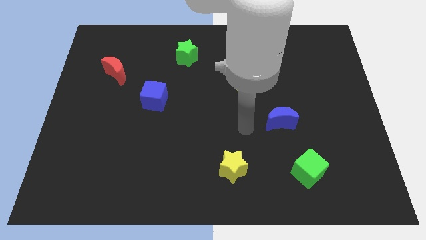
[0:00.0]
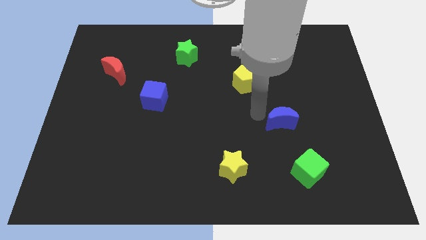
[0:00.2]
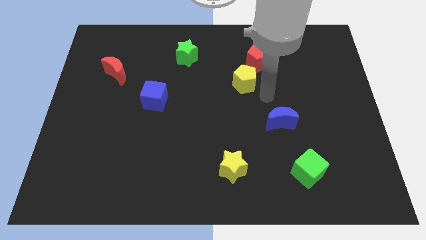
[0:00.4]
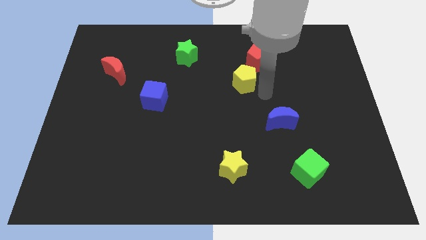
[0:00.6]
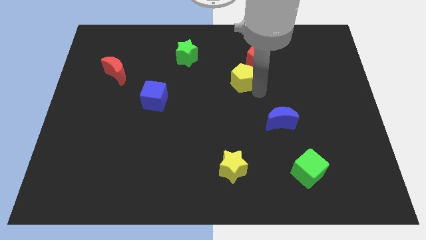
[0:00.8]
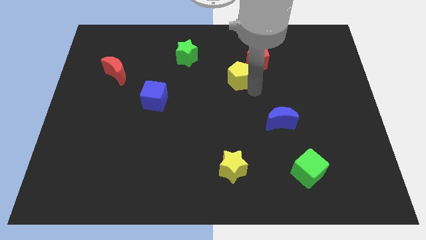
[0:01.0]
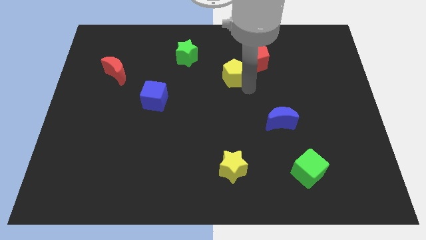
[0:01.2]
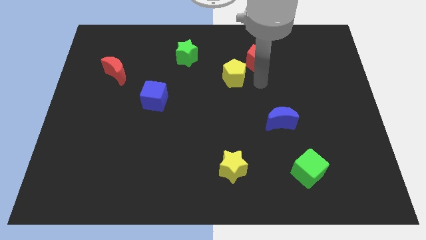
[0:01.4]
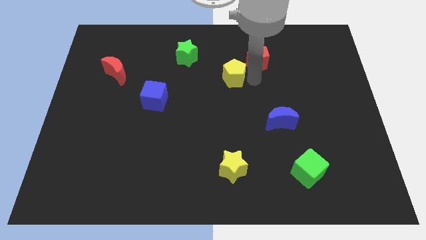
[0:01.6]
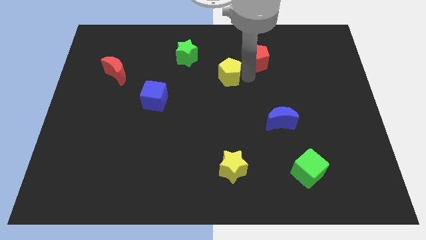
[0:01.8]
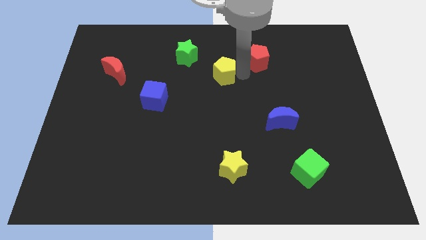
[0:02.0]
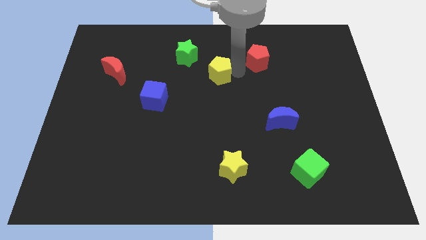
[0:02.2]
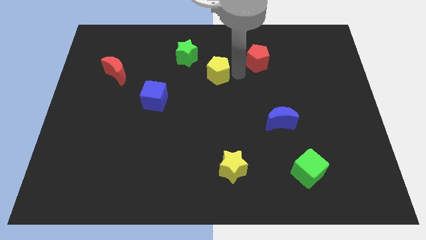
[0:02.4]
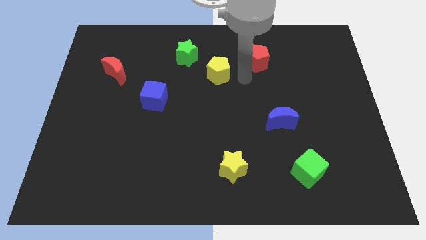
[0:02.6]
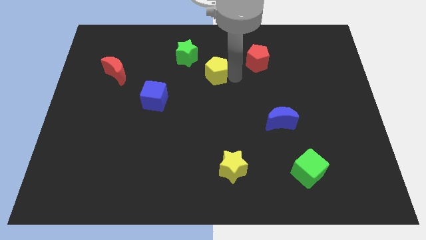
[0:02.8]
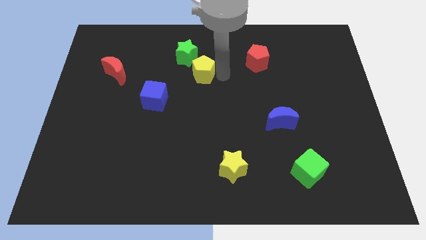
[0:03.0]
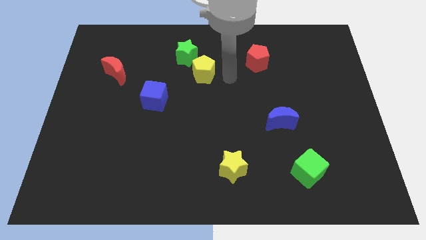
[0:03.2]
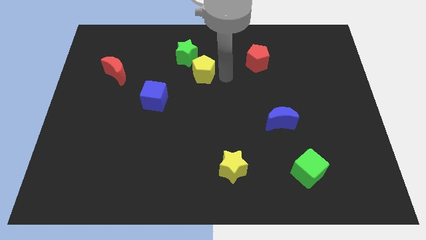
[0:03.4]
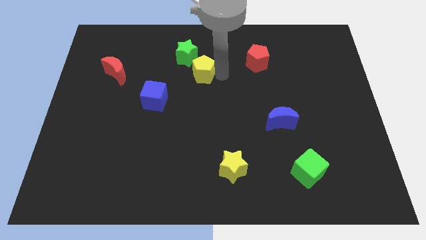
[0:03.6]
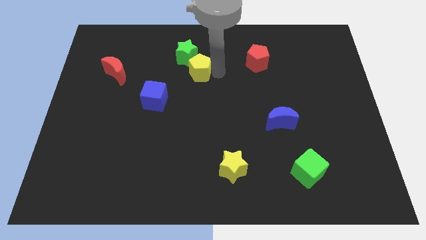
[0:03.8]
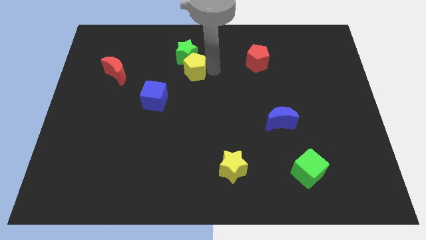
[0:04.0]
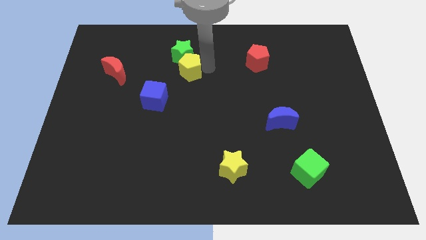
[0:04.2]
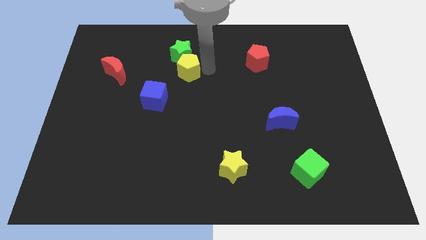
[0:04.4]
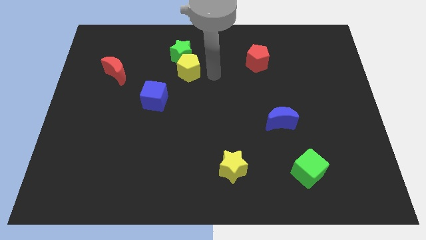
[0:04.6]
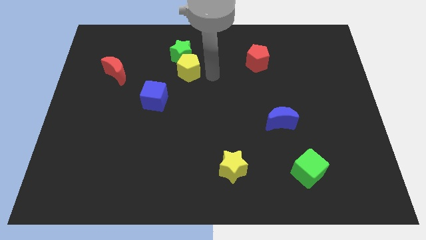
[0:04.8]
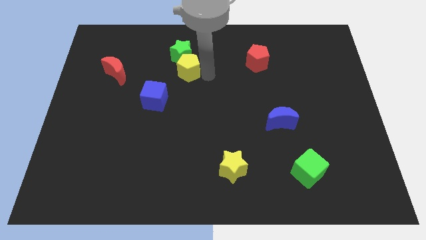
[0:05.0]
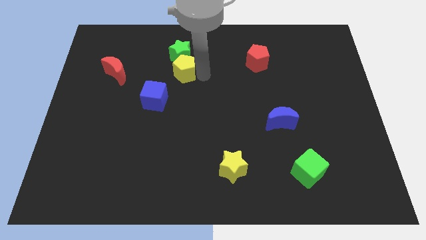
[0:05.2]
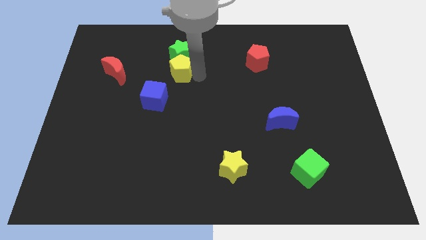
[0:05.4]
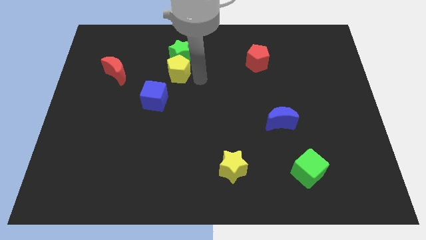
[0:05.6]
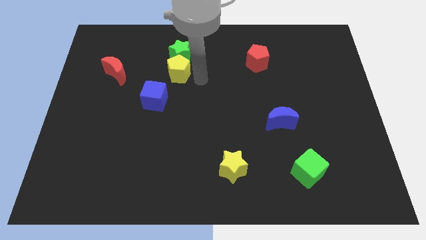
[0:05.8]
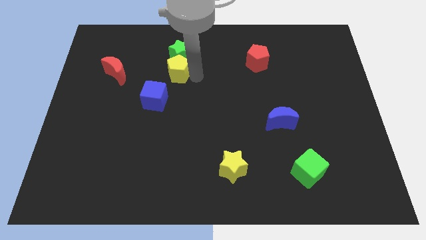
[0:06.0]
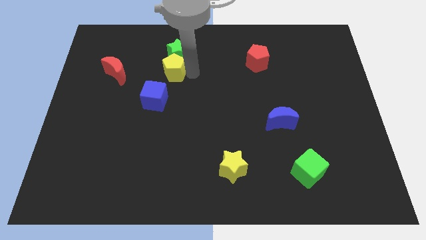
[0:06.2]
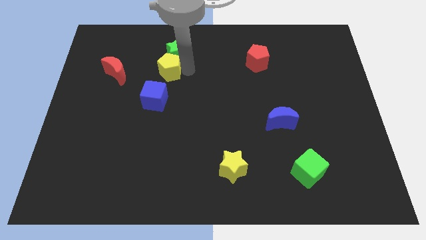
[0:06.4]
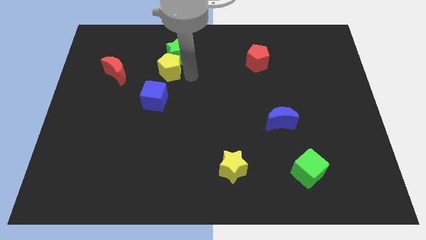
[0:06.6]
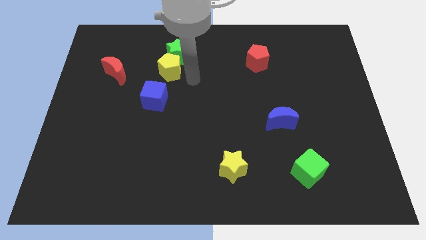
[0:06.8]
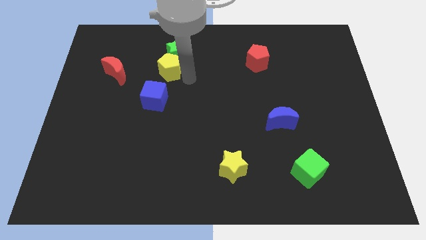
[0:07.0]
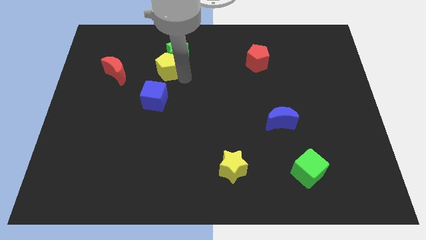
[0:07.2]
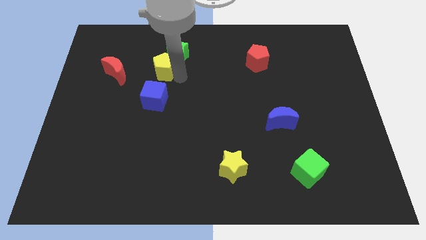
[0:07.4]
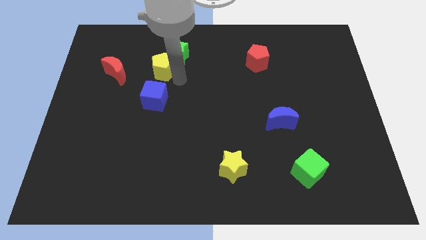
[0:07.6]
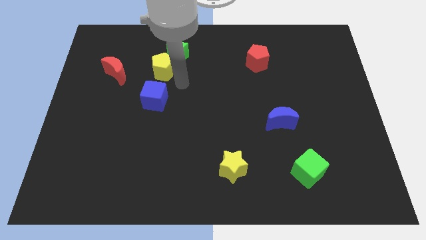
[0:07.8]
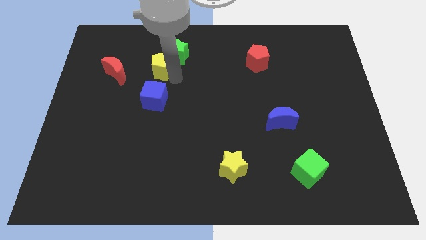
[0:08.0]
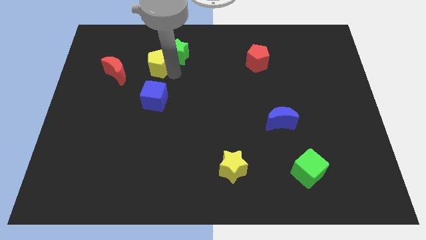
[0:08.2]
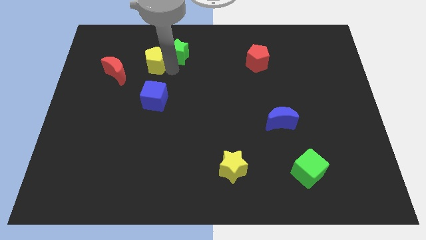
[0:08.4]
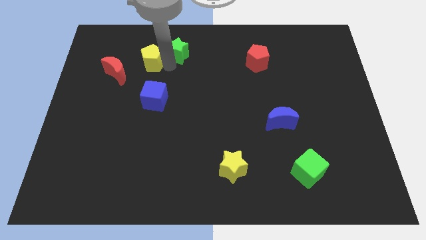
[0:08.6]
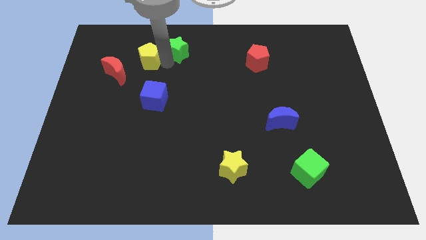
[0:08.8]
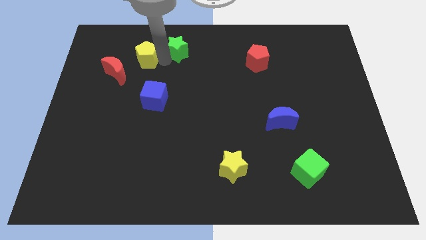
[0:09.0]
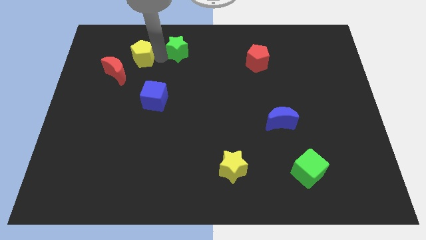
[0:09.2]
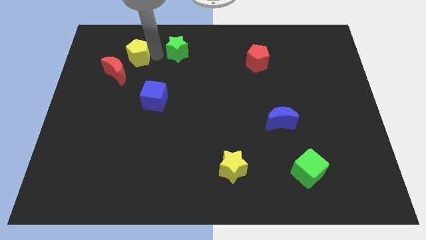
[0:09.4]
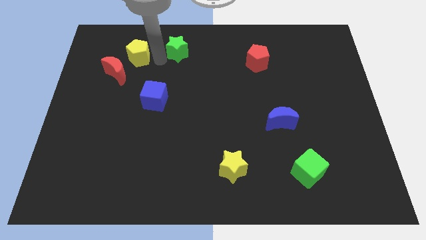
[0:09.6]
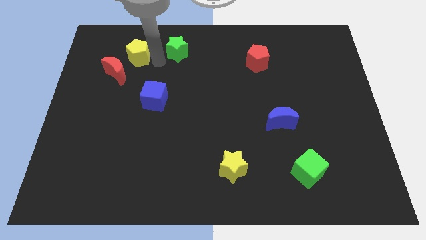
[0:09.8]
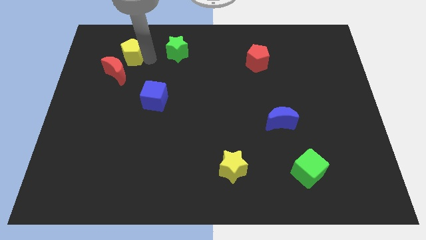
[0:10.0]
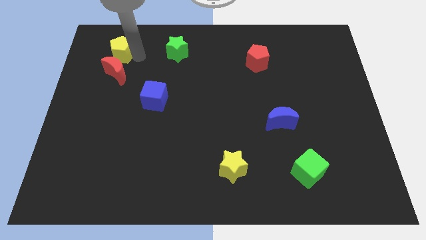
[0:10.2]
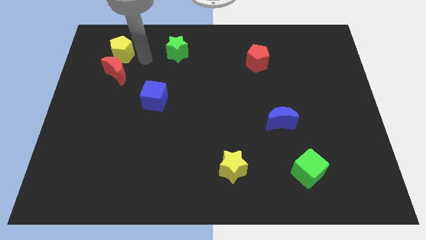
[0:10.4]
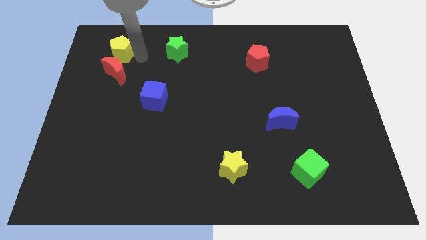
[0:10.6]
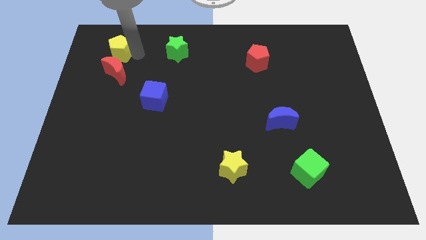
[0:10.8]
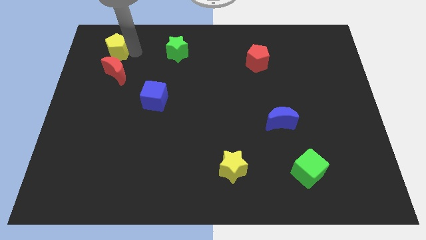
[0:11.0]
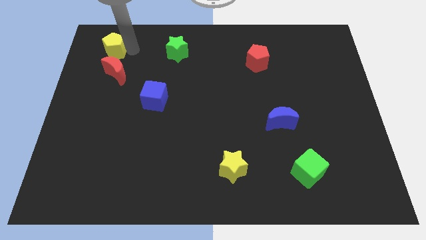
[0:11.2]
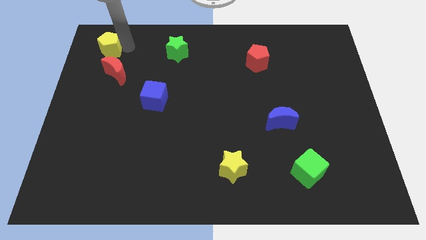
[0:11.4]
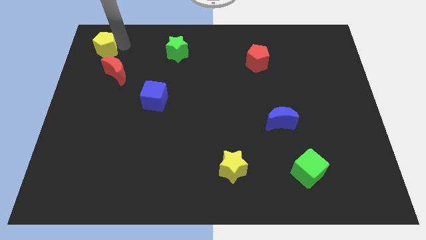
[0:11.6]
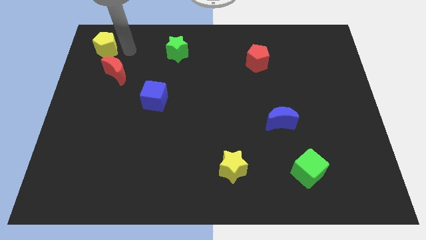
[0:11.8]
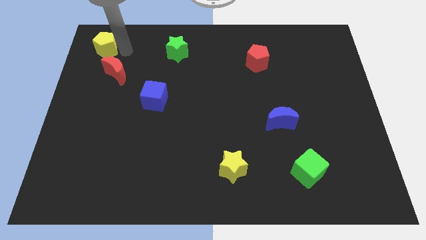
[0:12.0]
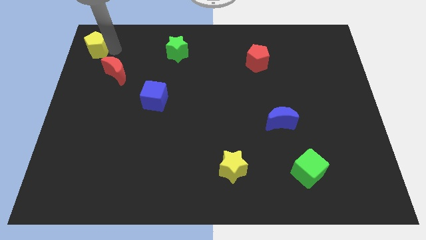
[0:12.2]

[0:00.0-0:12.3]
push the yellow pentagon to the upper left corner
